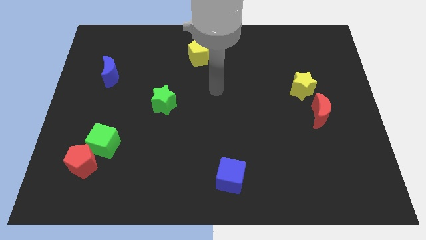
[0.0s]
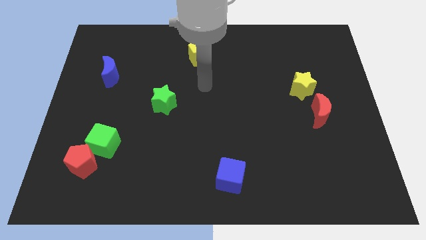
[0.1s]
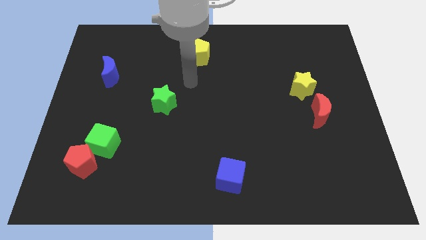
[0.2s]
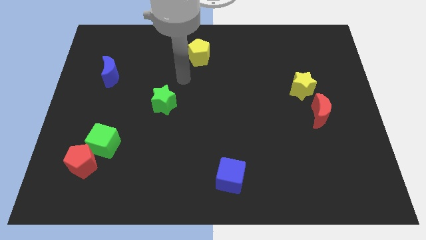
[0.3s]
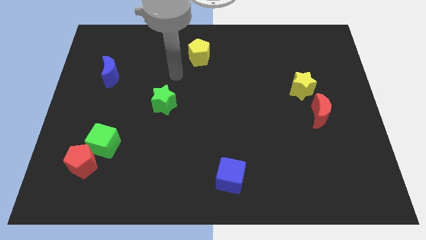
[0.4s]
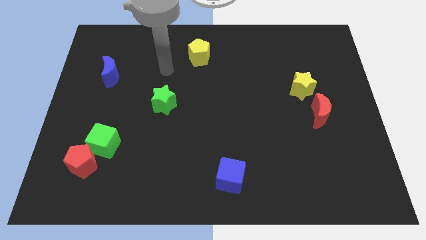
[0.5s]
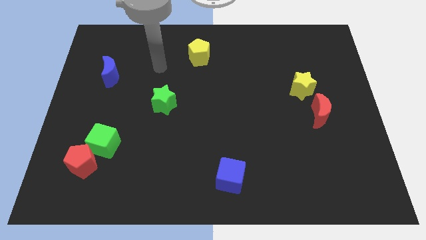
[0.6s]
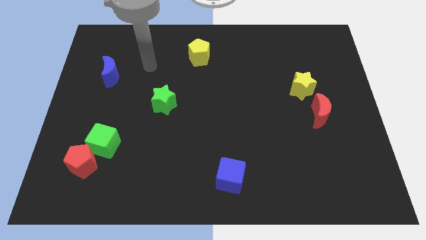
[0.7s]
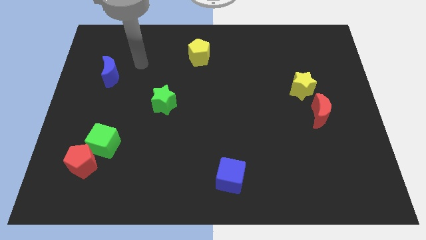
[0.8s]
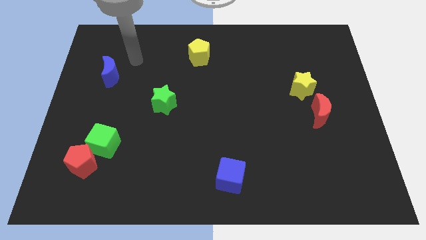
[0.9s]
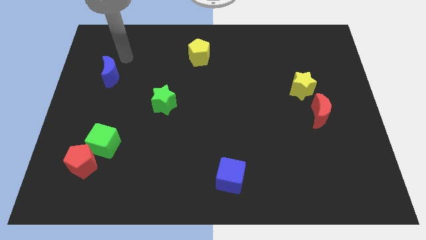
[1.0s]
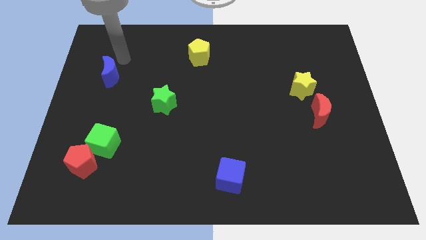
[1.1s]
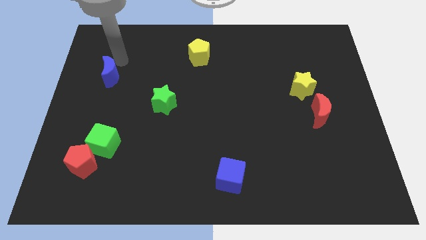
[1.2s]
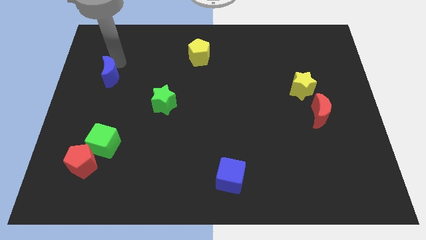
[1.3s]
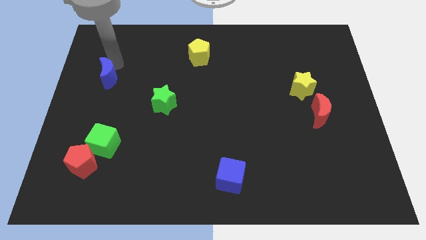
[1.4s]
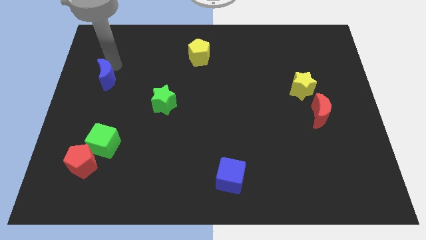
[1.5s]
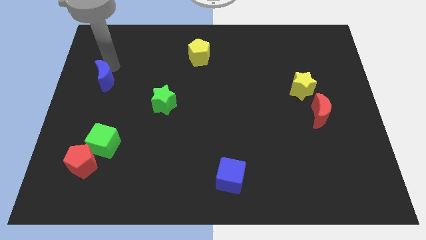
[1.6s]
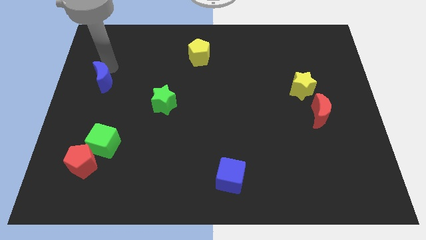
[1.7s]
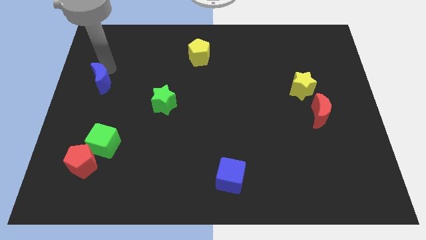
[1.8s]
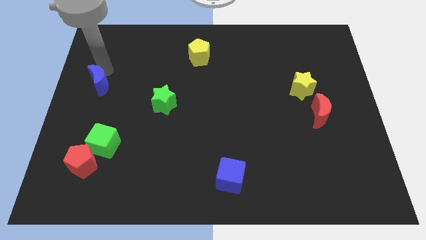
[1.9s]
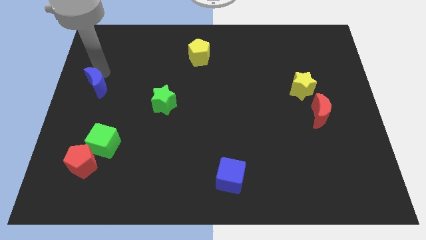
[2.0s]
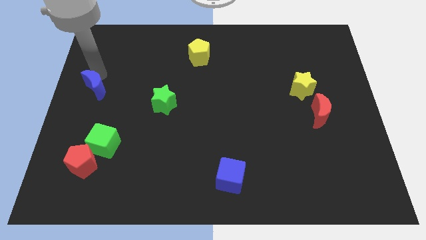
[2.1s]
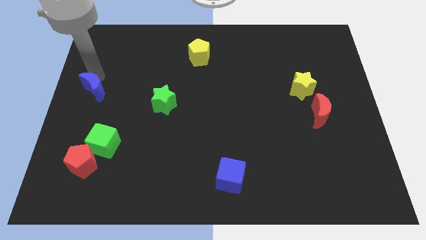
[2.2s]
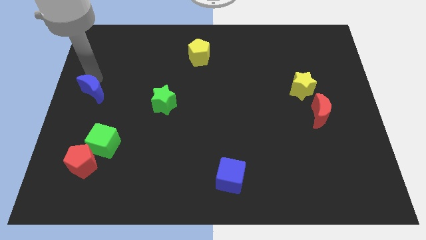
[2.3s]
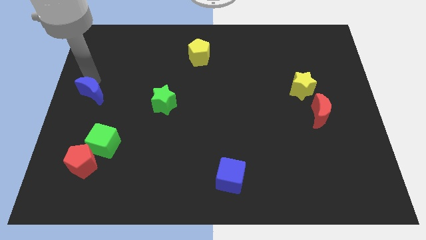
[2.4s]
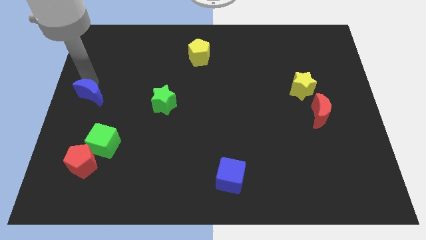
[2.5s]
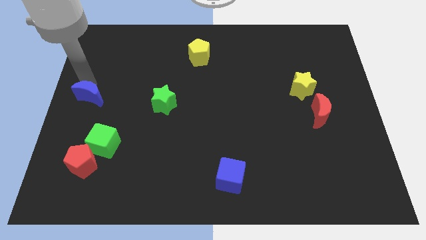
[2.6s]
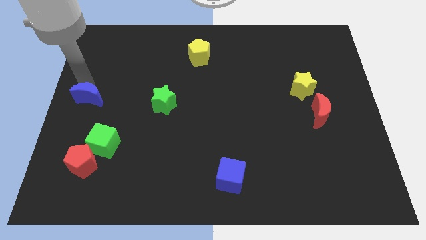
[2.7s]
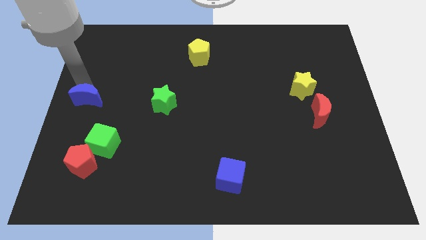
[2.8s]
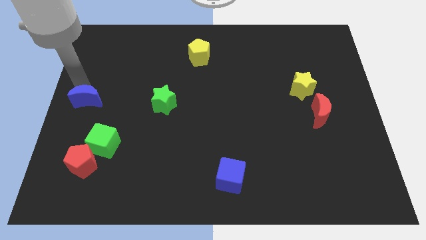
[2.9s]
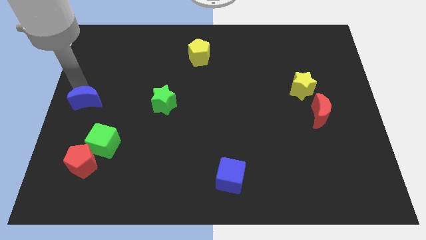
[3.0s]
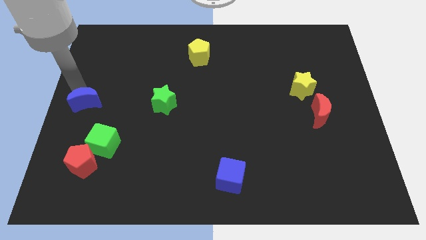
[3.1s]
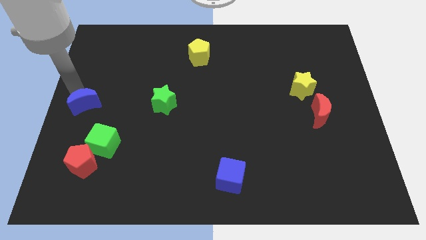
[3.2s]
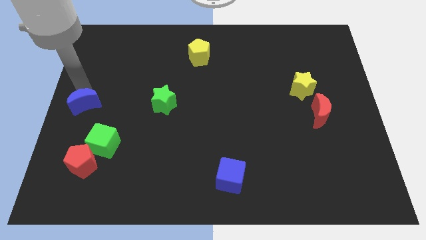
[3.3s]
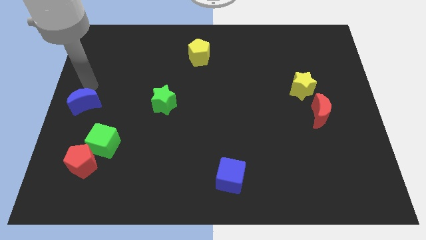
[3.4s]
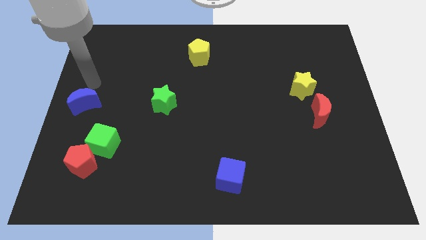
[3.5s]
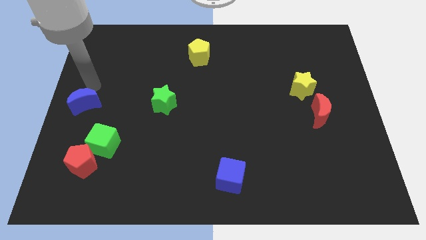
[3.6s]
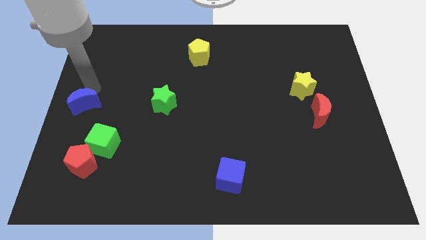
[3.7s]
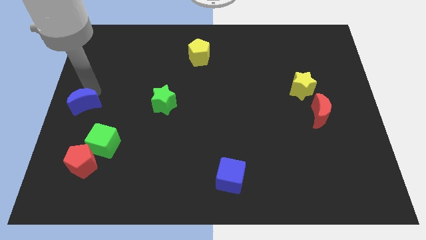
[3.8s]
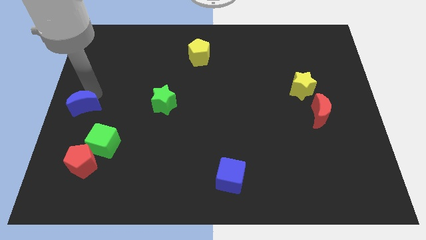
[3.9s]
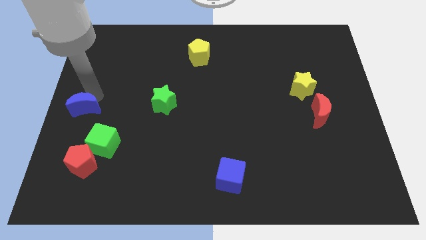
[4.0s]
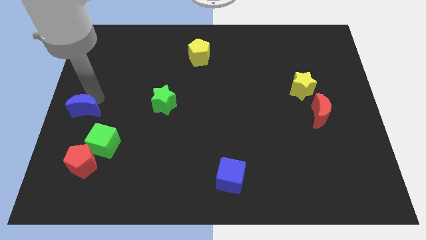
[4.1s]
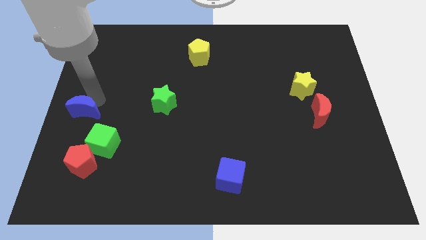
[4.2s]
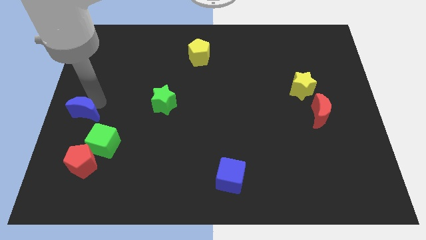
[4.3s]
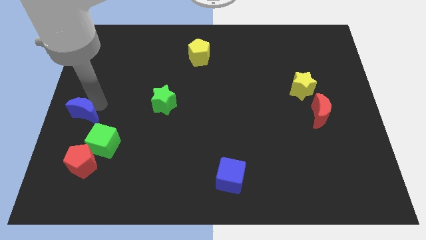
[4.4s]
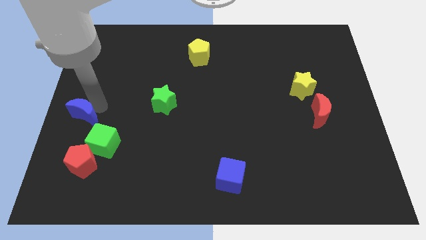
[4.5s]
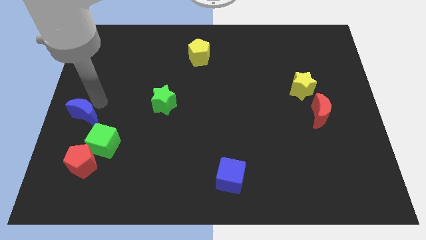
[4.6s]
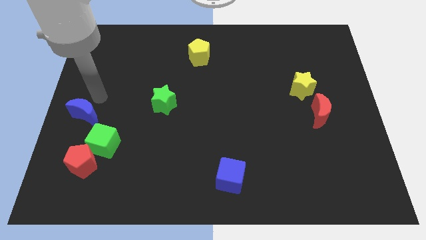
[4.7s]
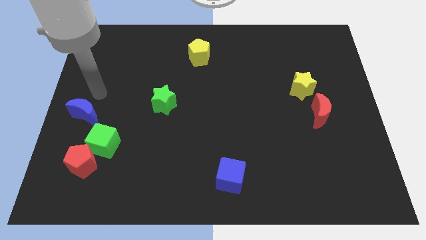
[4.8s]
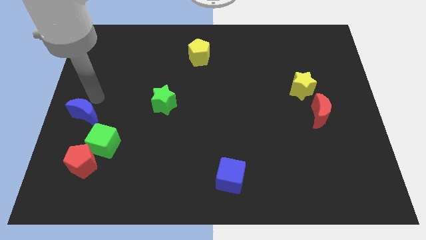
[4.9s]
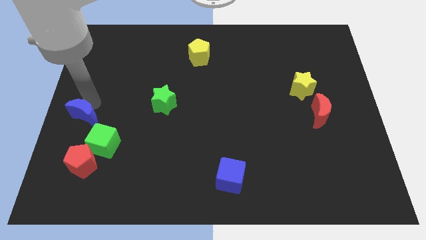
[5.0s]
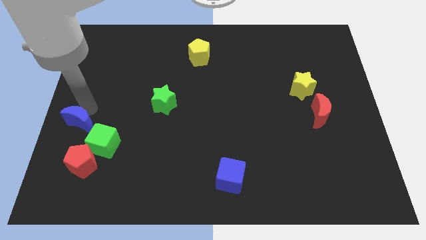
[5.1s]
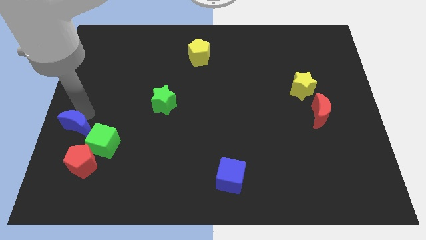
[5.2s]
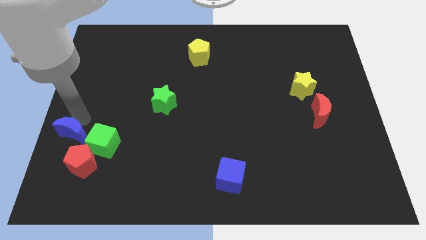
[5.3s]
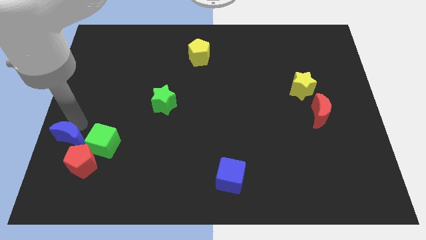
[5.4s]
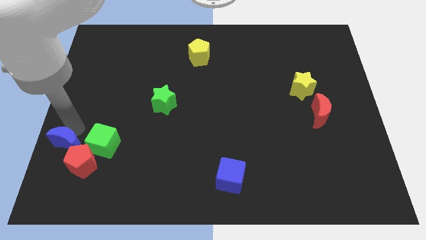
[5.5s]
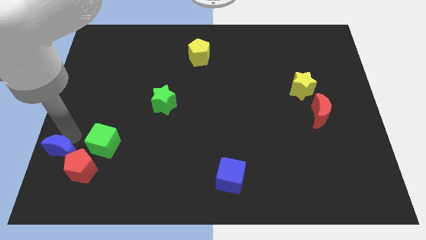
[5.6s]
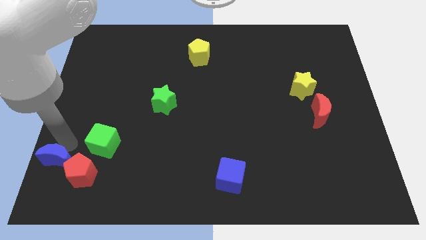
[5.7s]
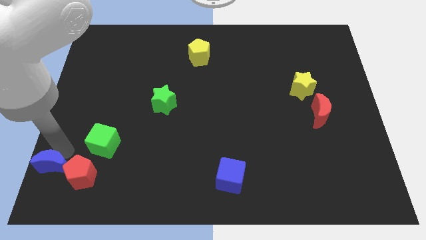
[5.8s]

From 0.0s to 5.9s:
slide the blue moon to the bottom left corner

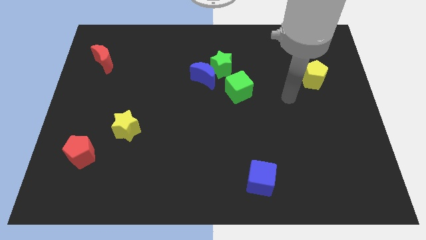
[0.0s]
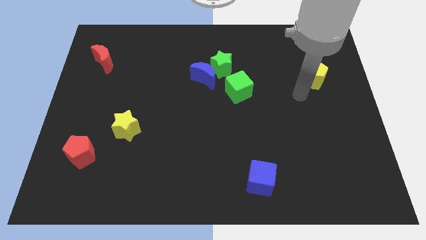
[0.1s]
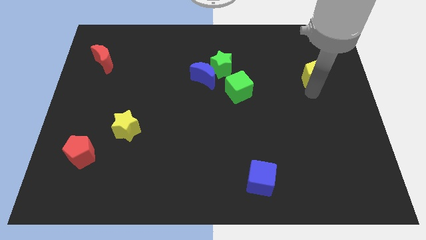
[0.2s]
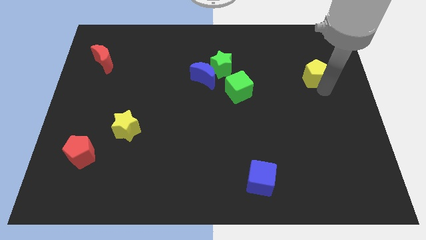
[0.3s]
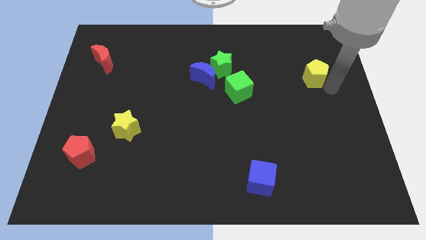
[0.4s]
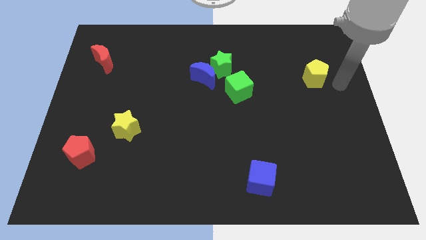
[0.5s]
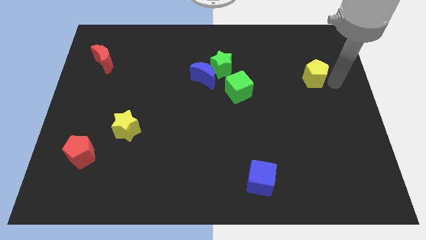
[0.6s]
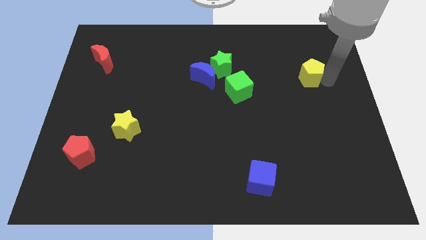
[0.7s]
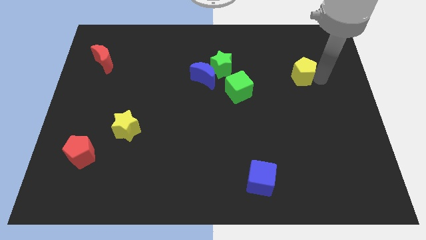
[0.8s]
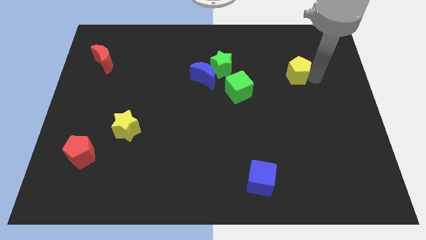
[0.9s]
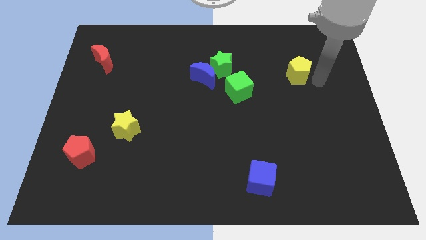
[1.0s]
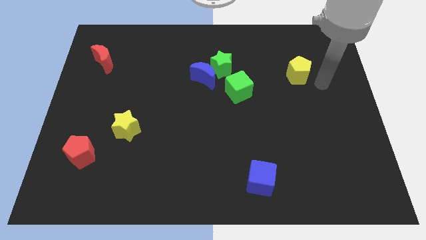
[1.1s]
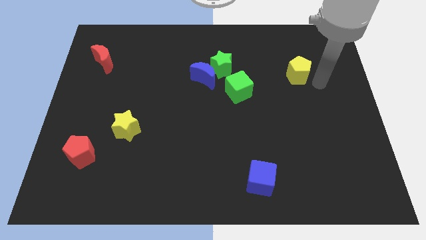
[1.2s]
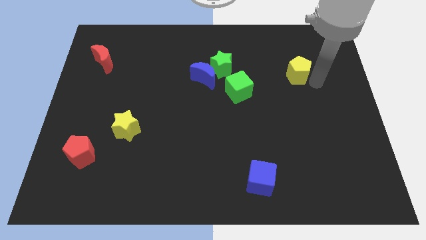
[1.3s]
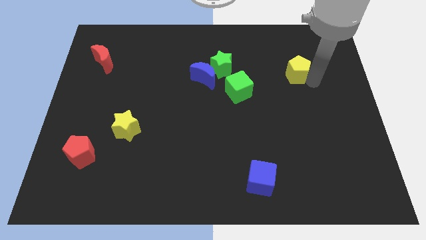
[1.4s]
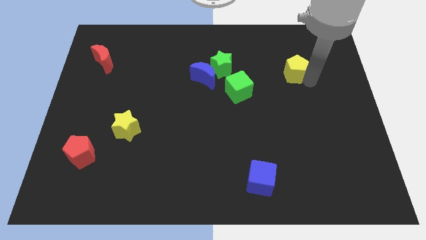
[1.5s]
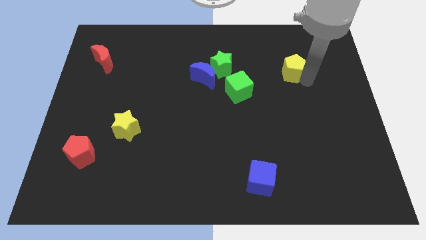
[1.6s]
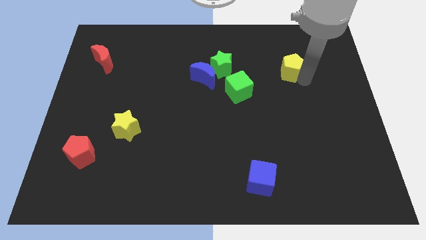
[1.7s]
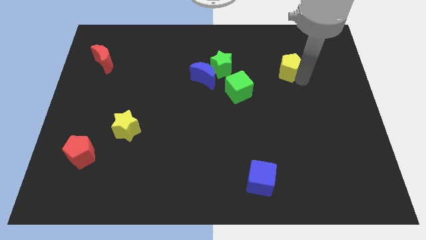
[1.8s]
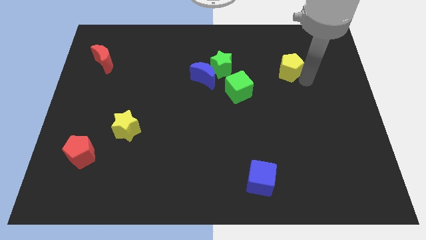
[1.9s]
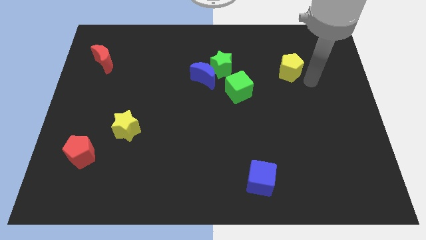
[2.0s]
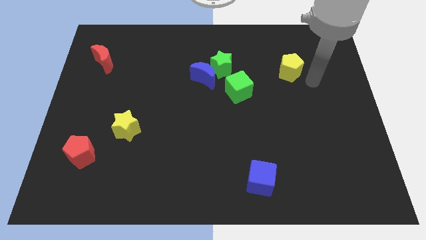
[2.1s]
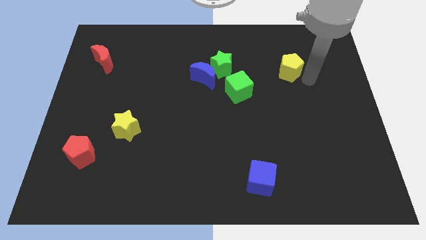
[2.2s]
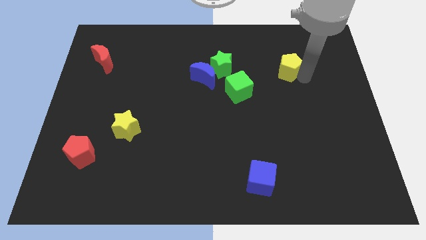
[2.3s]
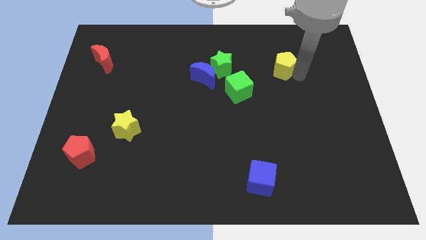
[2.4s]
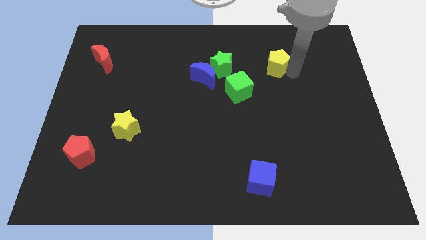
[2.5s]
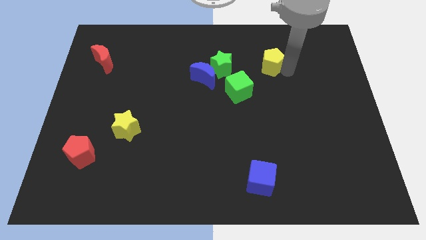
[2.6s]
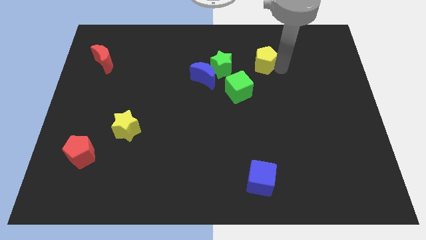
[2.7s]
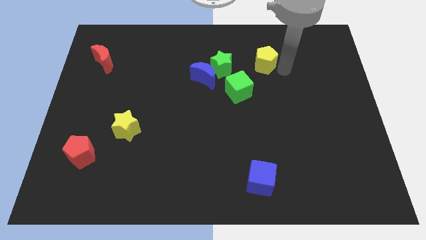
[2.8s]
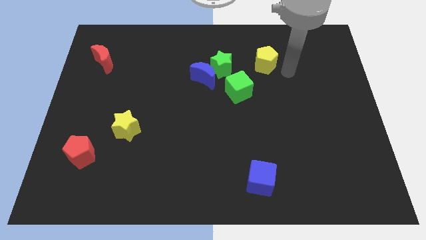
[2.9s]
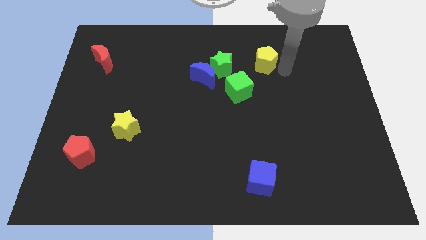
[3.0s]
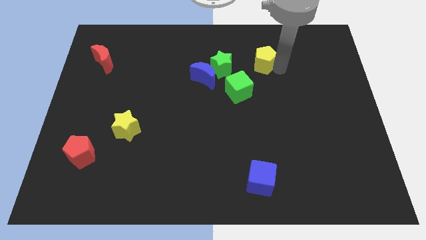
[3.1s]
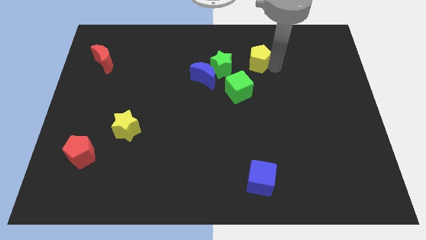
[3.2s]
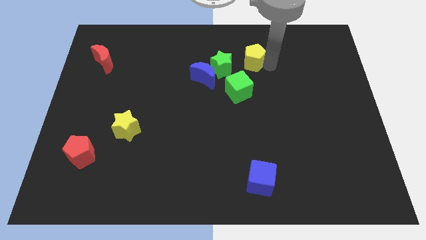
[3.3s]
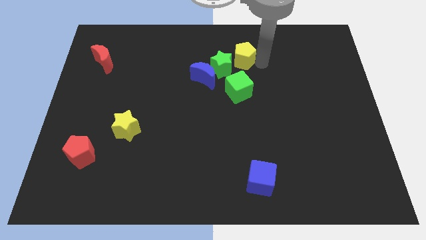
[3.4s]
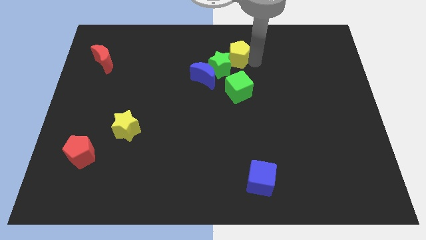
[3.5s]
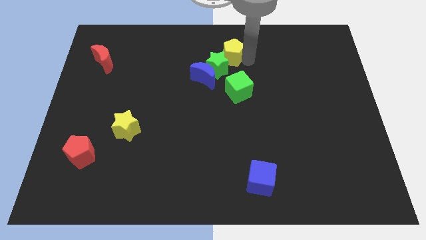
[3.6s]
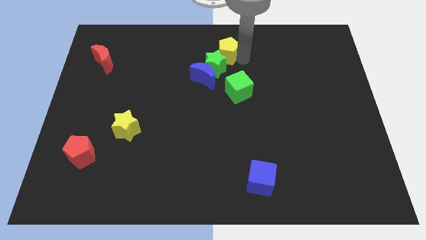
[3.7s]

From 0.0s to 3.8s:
push the yellow pentagon to the towards your base
